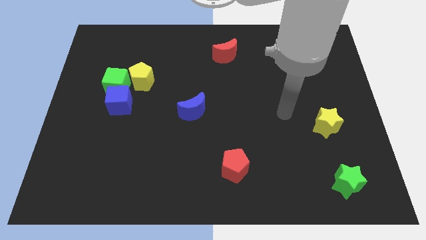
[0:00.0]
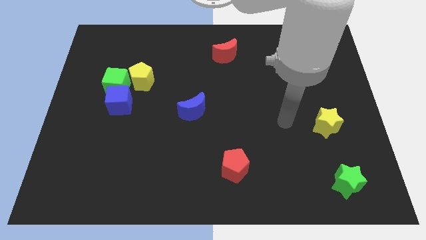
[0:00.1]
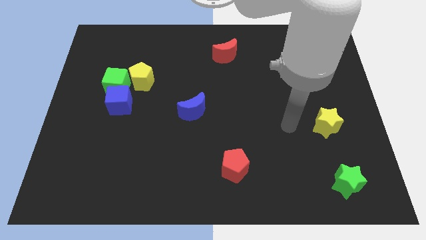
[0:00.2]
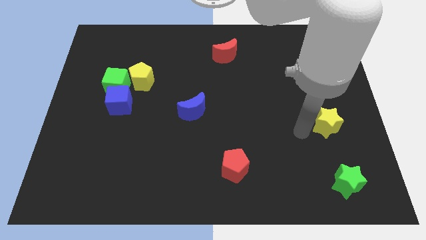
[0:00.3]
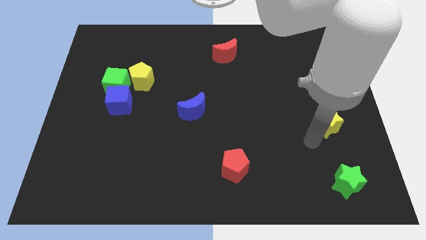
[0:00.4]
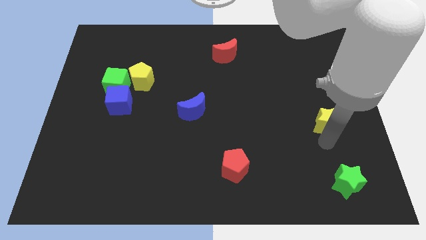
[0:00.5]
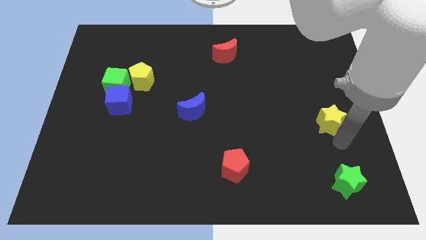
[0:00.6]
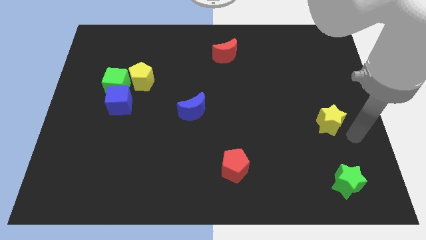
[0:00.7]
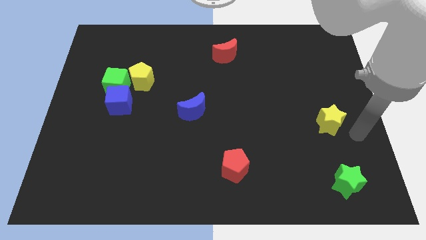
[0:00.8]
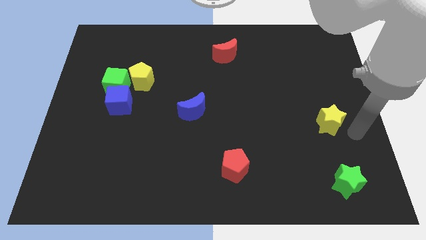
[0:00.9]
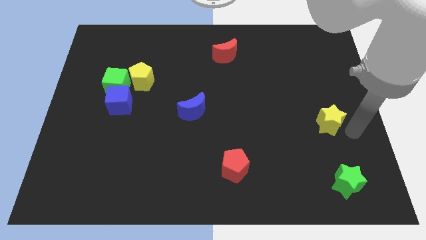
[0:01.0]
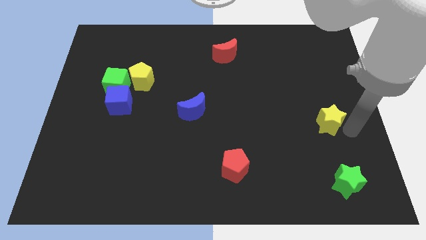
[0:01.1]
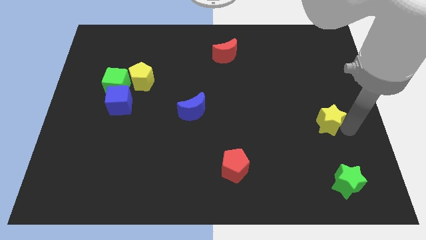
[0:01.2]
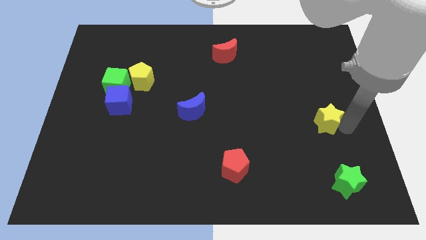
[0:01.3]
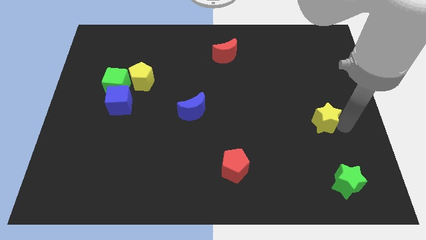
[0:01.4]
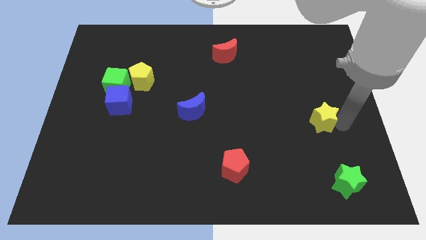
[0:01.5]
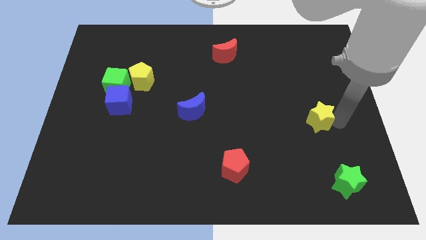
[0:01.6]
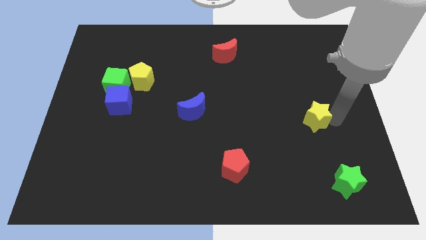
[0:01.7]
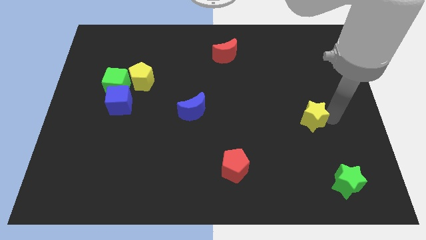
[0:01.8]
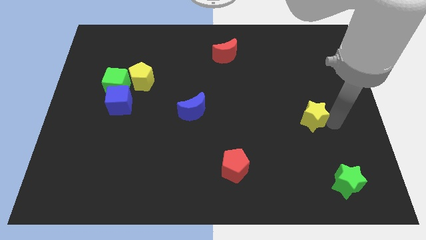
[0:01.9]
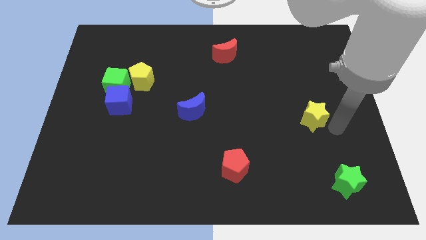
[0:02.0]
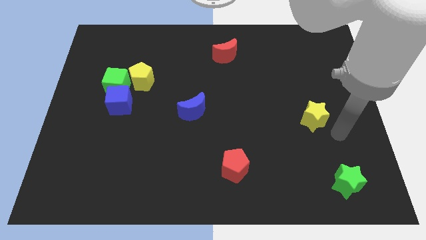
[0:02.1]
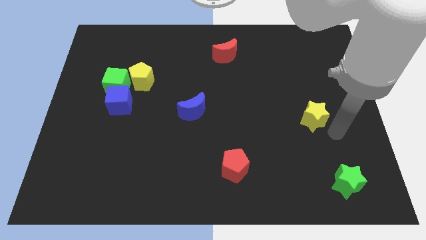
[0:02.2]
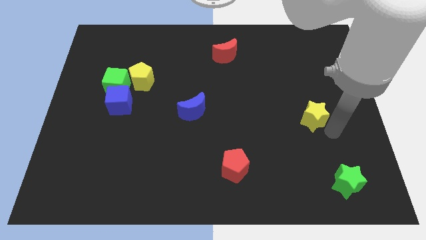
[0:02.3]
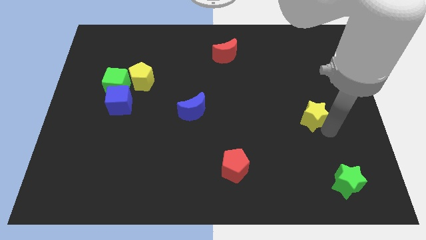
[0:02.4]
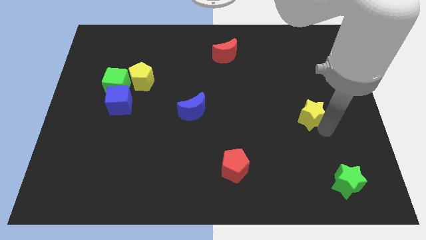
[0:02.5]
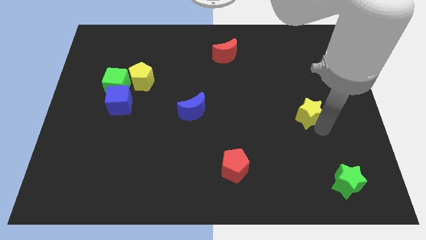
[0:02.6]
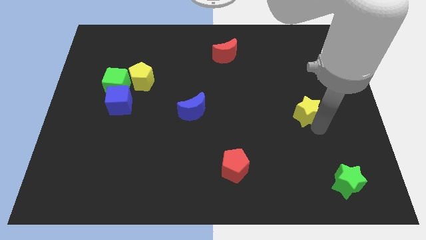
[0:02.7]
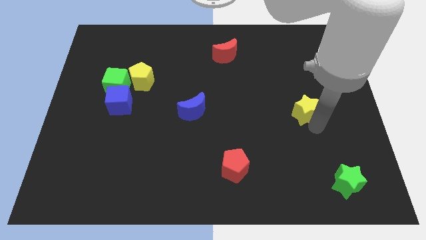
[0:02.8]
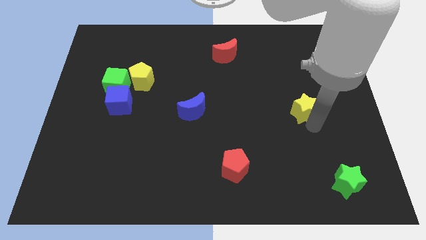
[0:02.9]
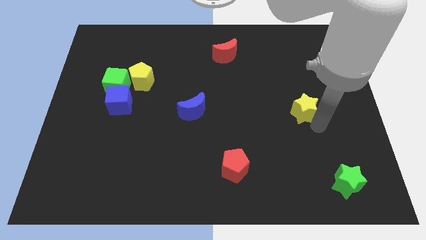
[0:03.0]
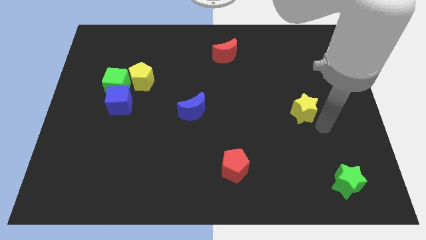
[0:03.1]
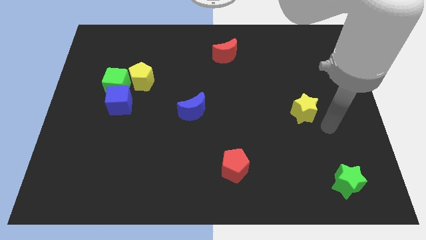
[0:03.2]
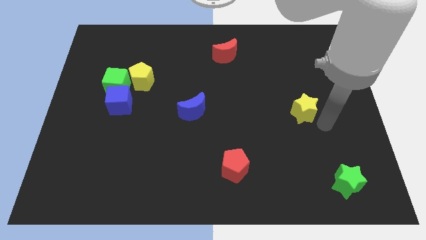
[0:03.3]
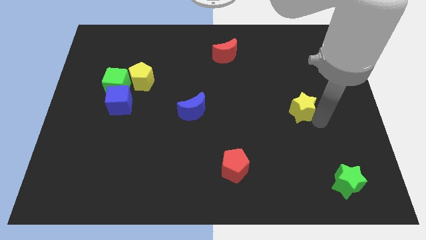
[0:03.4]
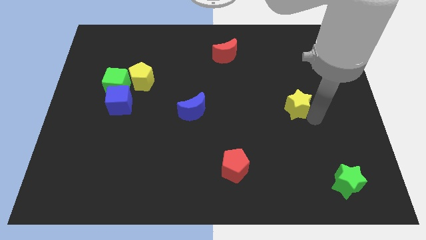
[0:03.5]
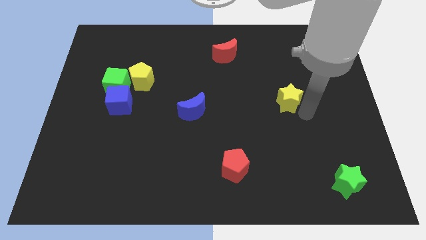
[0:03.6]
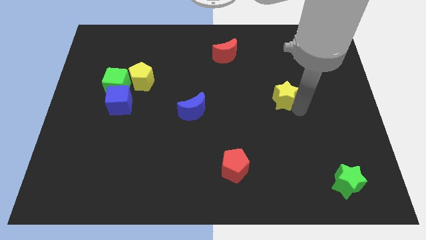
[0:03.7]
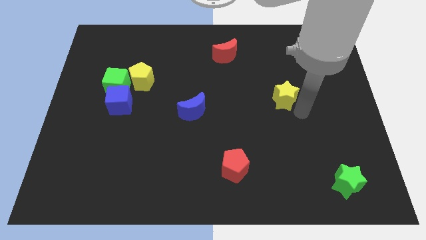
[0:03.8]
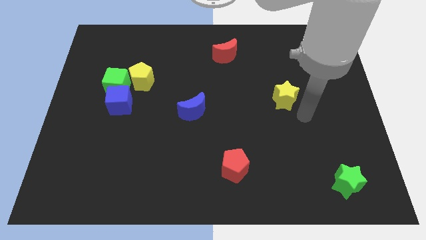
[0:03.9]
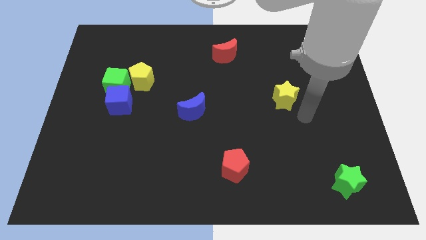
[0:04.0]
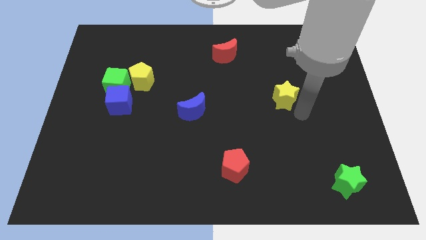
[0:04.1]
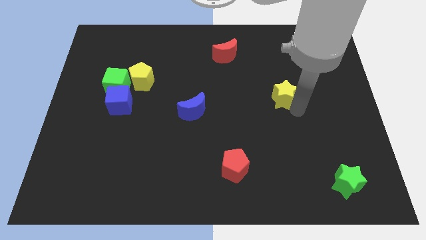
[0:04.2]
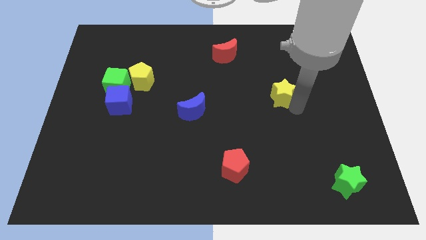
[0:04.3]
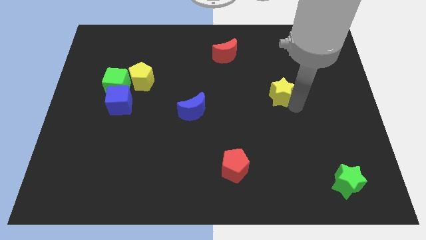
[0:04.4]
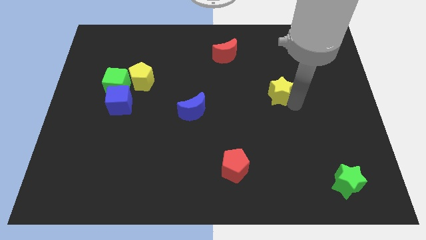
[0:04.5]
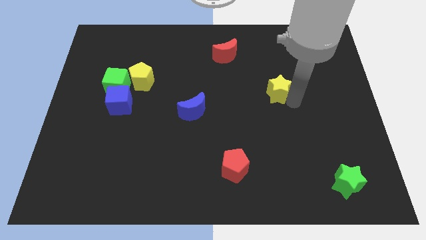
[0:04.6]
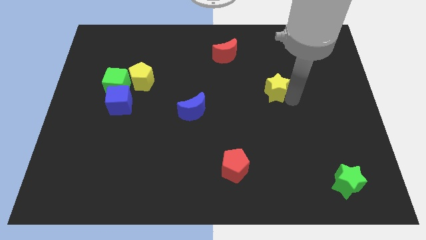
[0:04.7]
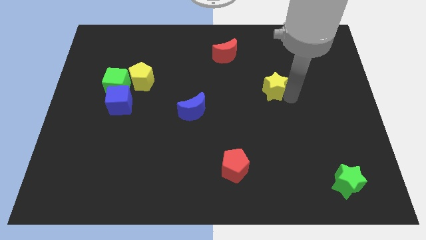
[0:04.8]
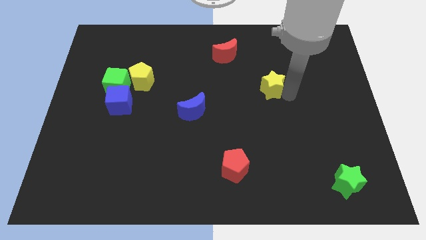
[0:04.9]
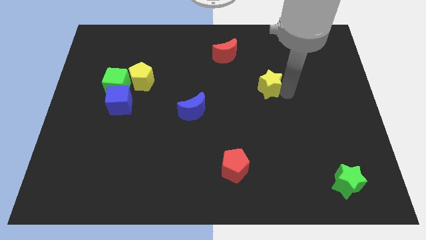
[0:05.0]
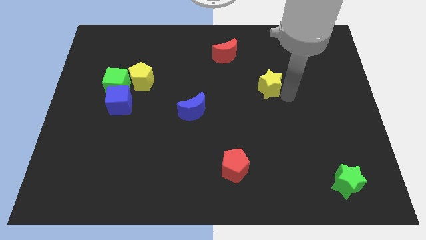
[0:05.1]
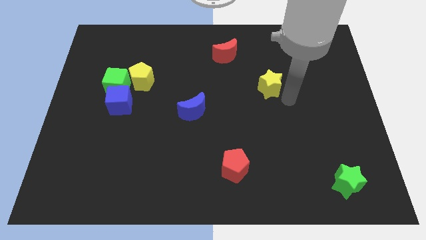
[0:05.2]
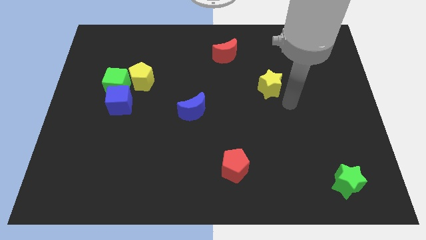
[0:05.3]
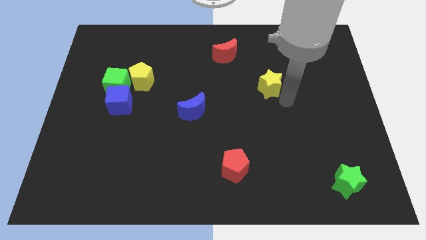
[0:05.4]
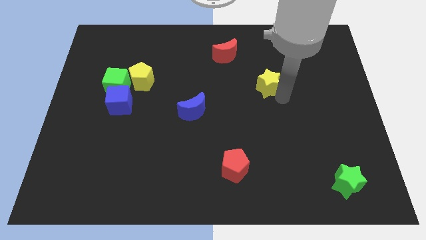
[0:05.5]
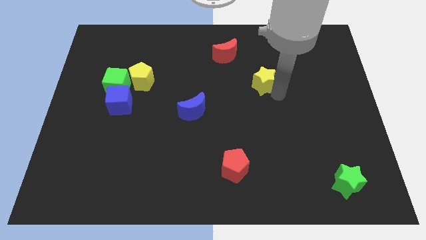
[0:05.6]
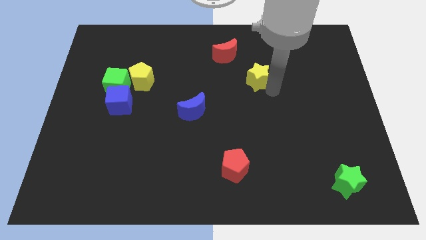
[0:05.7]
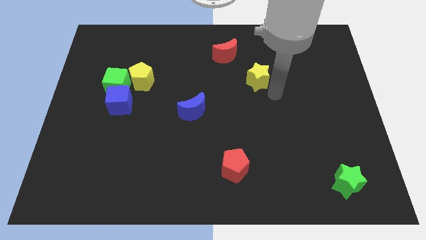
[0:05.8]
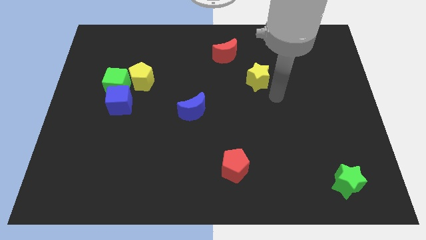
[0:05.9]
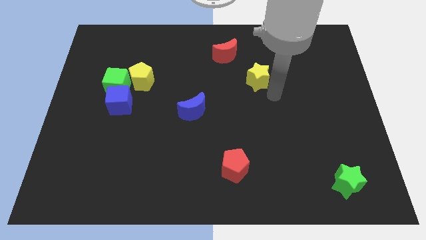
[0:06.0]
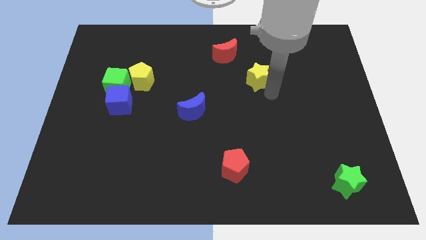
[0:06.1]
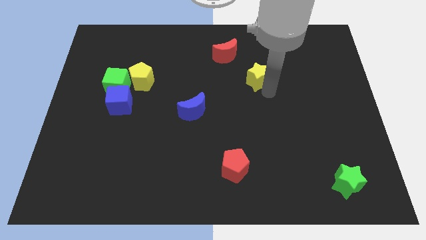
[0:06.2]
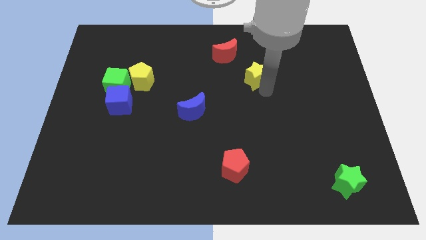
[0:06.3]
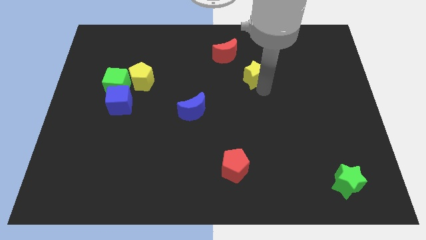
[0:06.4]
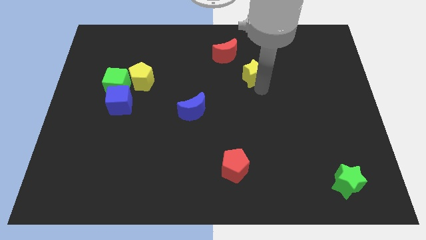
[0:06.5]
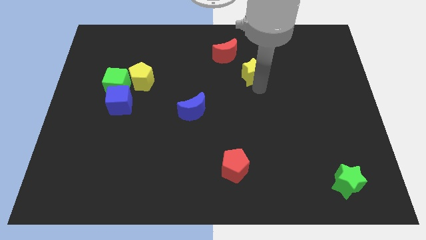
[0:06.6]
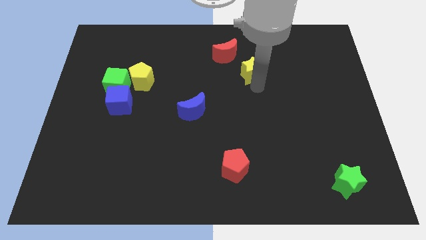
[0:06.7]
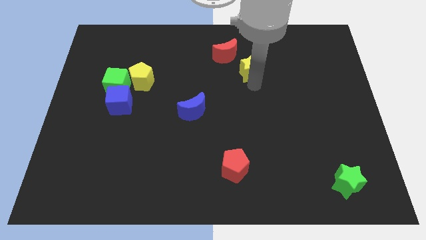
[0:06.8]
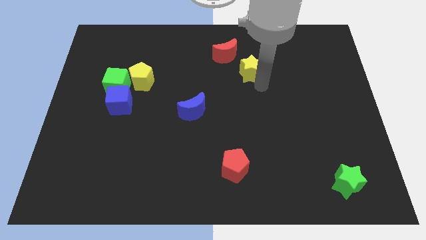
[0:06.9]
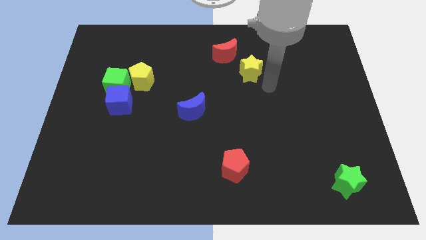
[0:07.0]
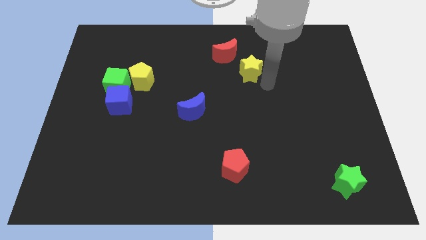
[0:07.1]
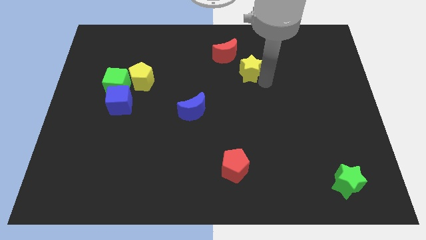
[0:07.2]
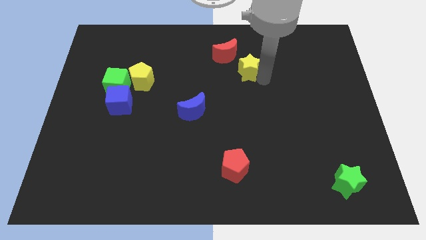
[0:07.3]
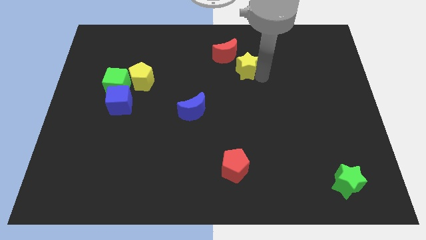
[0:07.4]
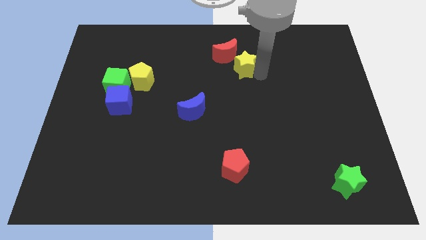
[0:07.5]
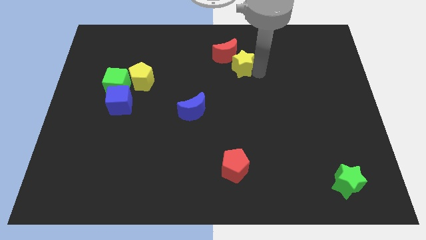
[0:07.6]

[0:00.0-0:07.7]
push the yellow star towards the red moon
